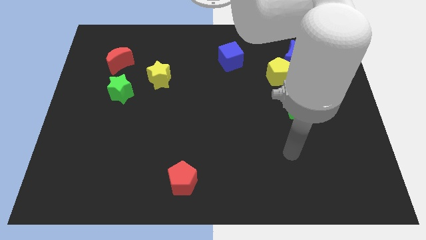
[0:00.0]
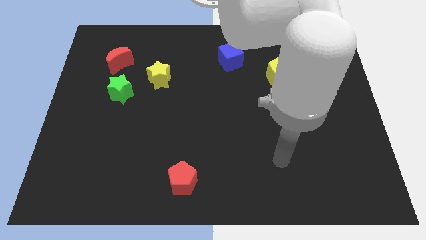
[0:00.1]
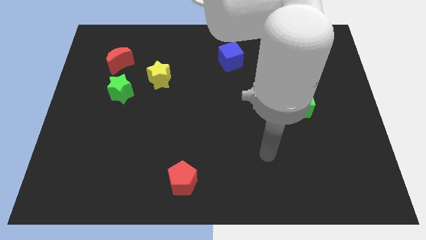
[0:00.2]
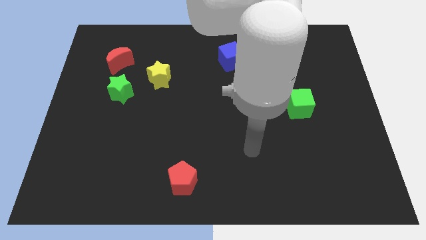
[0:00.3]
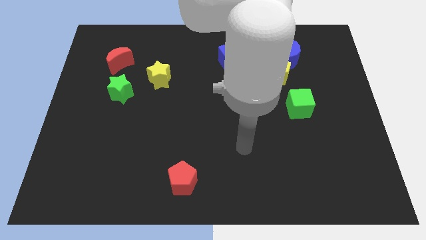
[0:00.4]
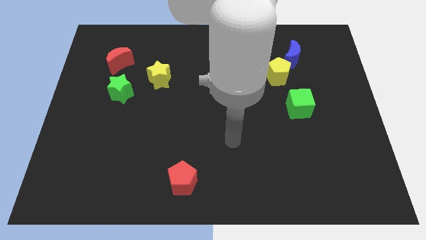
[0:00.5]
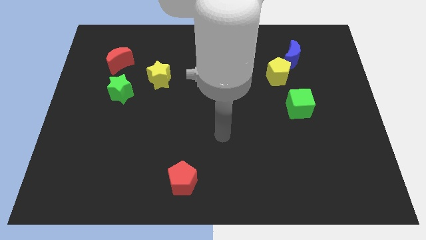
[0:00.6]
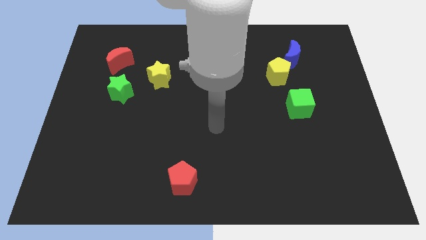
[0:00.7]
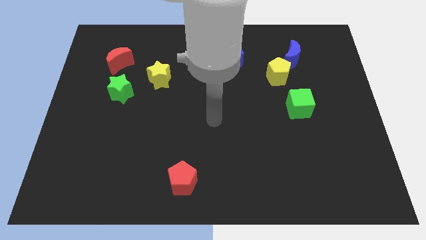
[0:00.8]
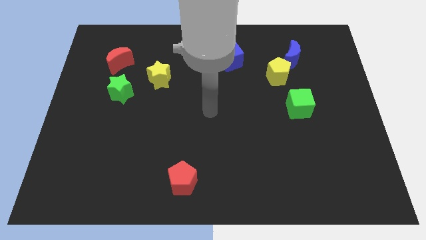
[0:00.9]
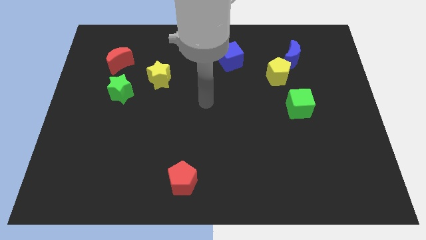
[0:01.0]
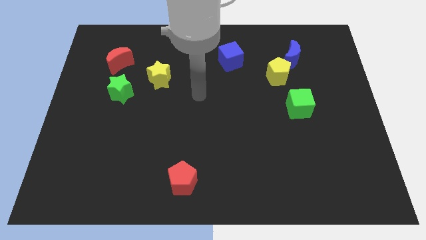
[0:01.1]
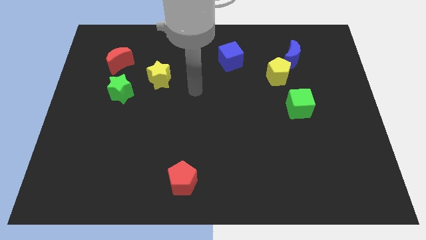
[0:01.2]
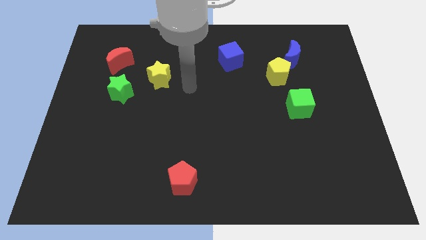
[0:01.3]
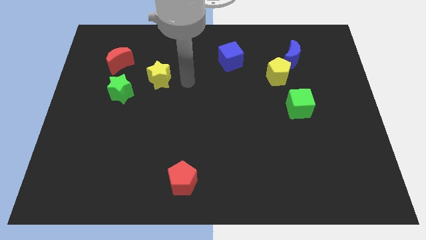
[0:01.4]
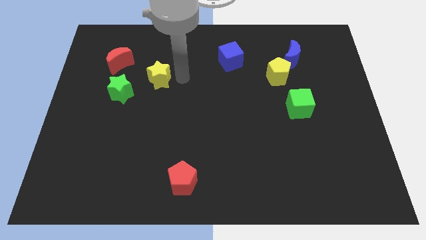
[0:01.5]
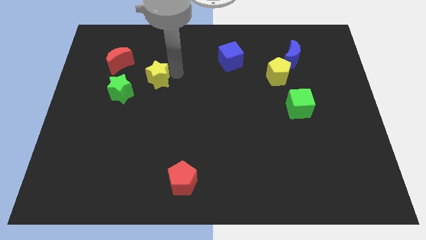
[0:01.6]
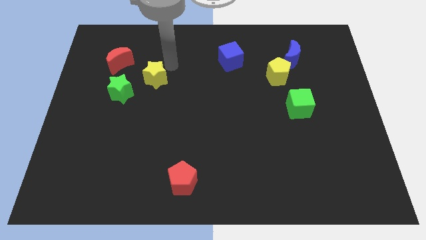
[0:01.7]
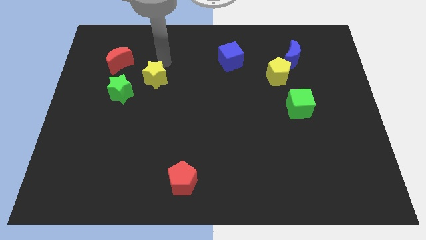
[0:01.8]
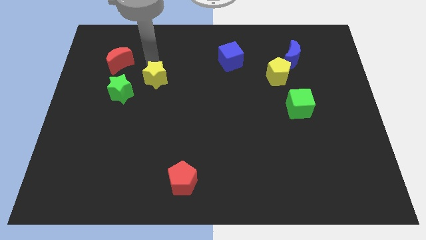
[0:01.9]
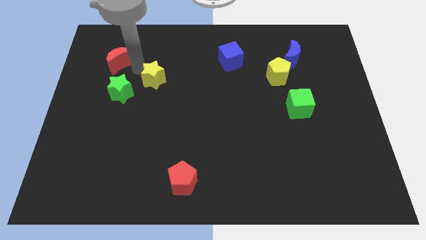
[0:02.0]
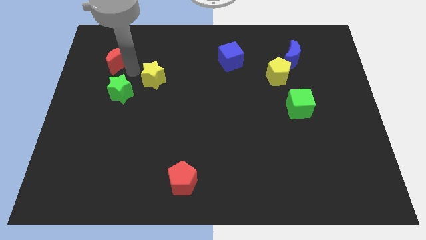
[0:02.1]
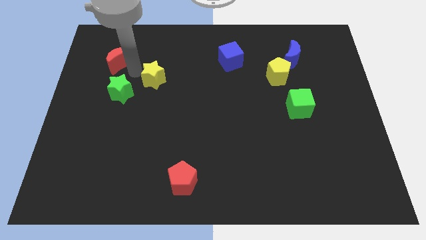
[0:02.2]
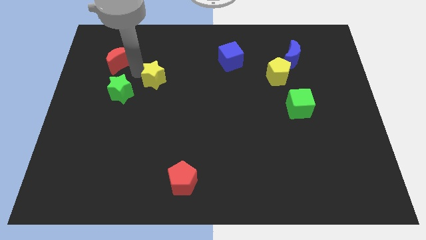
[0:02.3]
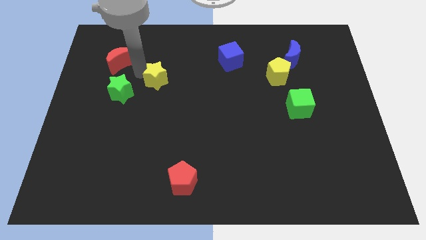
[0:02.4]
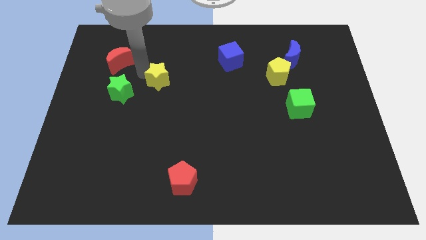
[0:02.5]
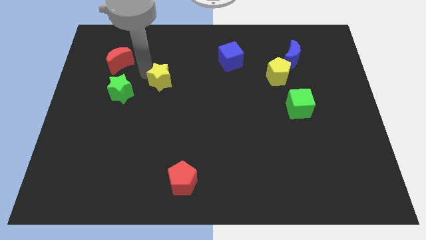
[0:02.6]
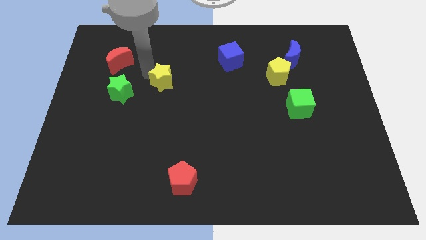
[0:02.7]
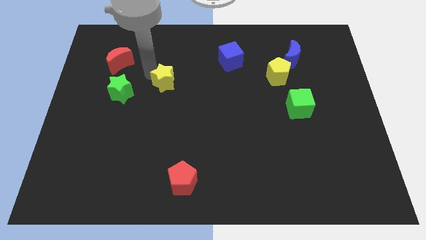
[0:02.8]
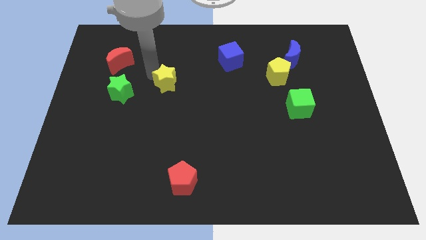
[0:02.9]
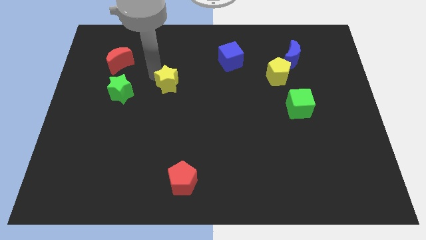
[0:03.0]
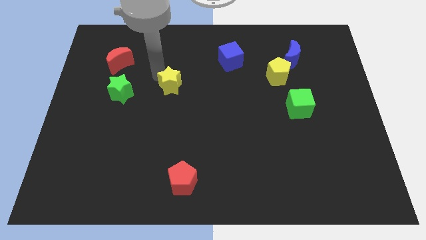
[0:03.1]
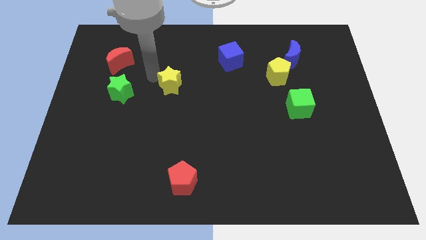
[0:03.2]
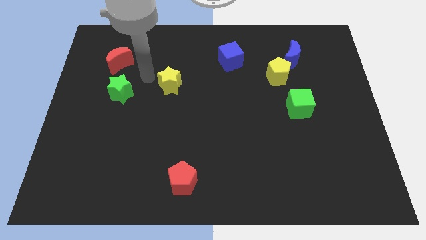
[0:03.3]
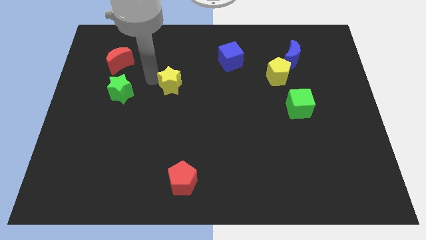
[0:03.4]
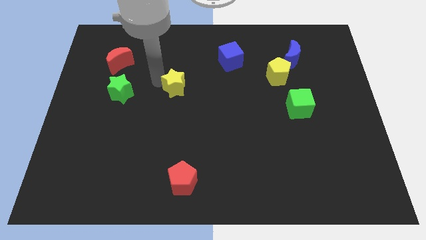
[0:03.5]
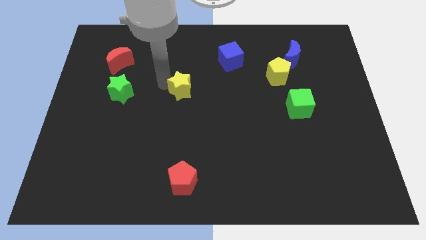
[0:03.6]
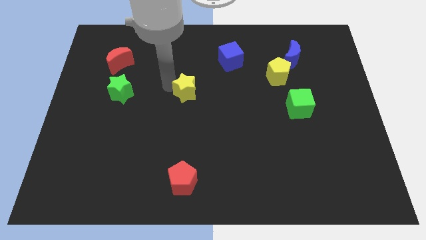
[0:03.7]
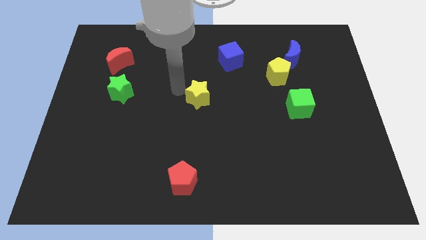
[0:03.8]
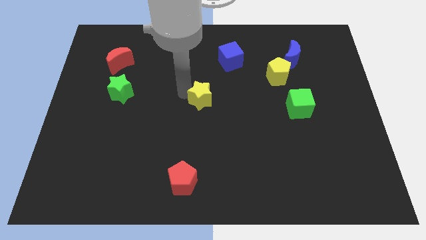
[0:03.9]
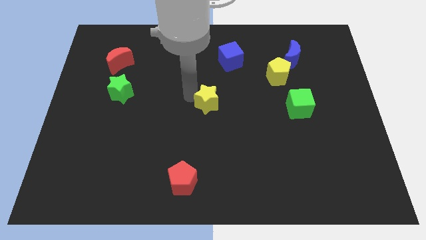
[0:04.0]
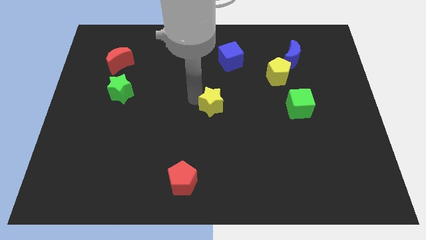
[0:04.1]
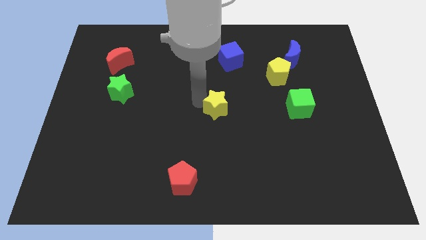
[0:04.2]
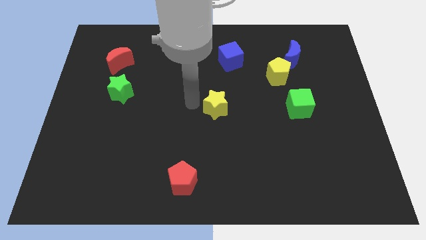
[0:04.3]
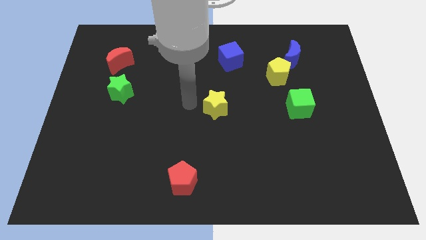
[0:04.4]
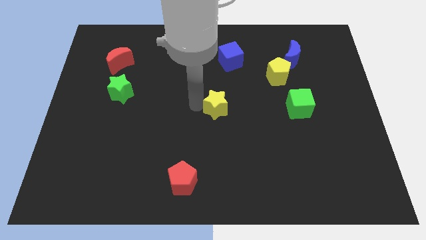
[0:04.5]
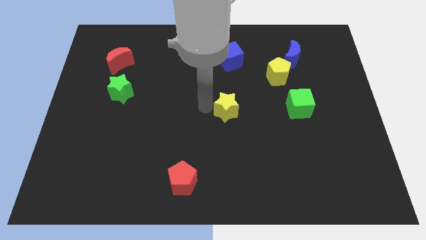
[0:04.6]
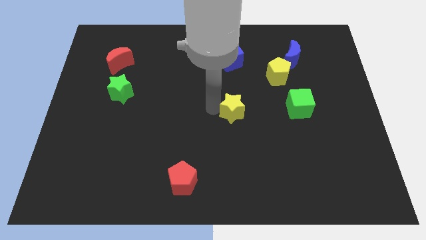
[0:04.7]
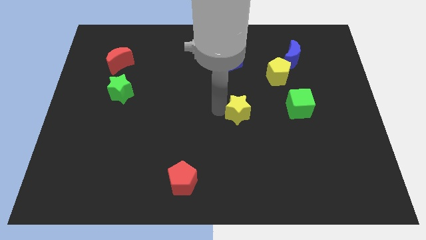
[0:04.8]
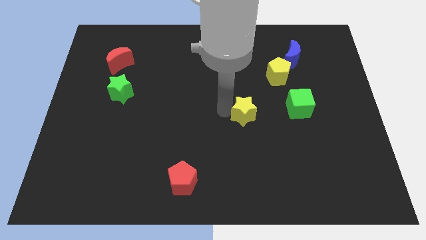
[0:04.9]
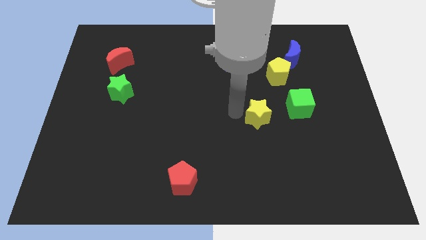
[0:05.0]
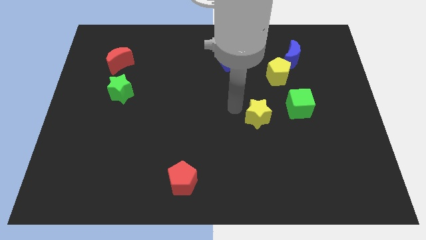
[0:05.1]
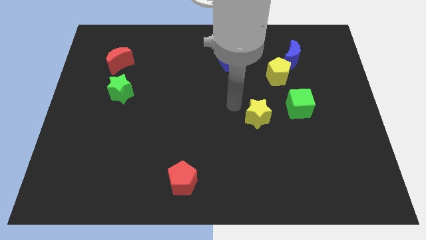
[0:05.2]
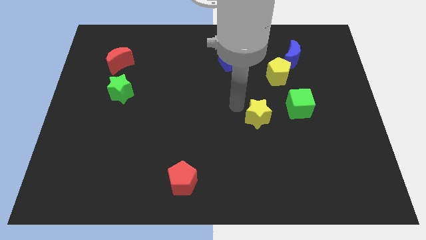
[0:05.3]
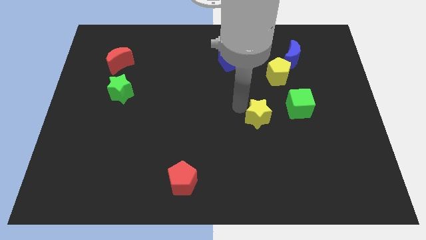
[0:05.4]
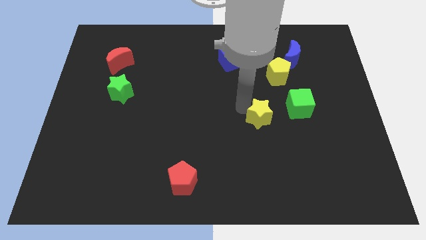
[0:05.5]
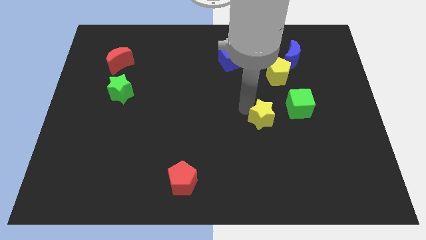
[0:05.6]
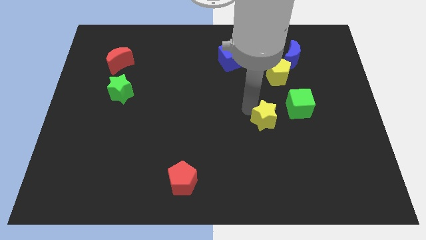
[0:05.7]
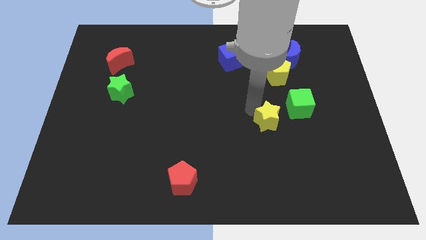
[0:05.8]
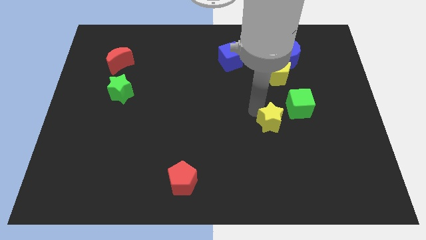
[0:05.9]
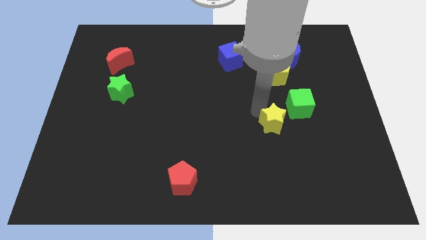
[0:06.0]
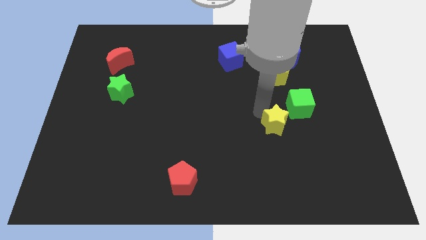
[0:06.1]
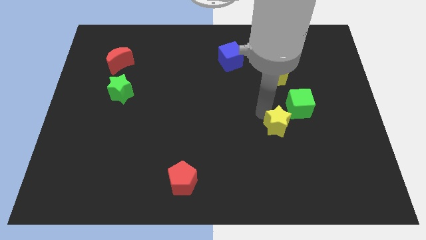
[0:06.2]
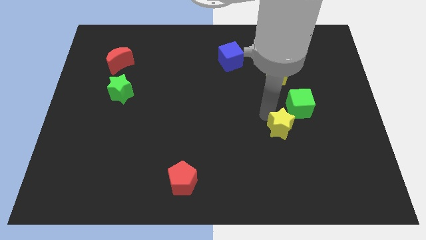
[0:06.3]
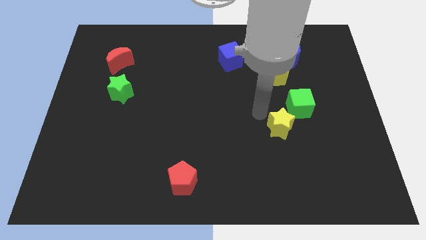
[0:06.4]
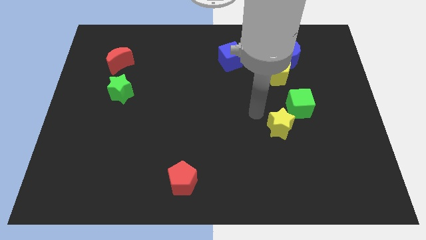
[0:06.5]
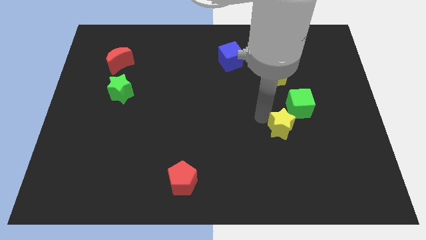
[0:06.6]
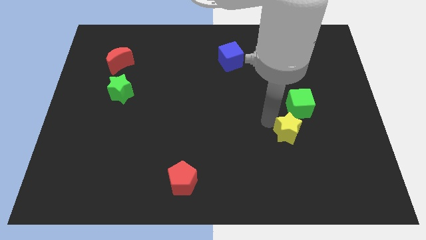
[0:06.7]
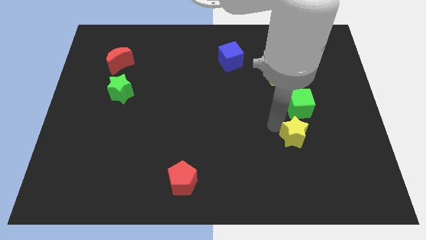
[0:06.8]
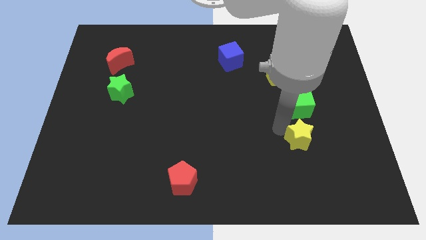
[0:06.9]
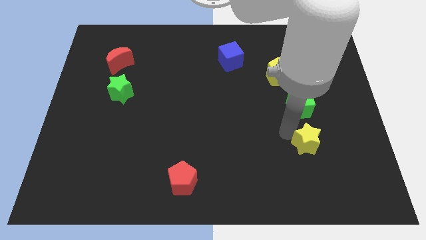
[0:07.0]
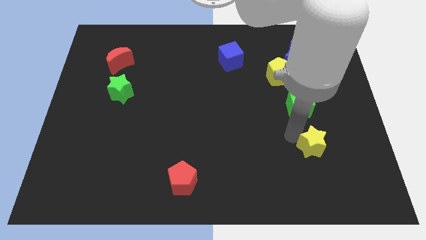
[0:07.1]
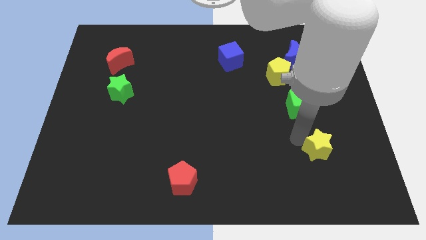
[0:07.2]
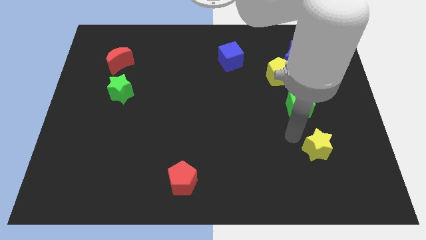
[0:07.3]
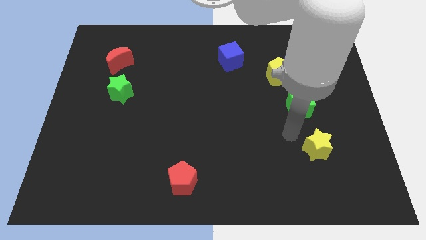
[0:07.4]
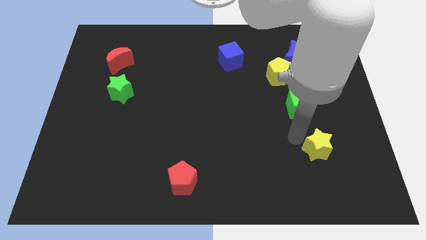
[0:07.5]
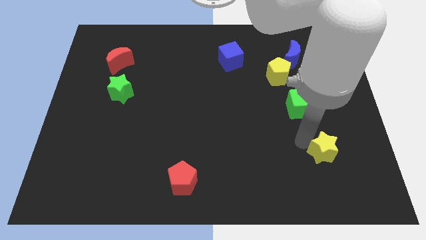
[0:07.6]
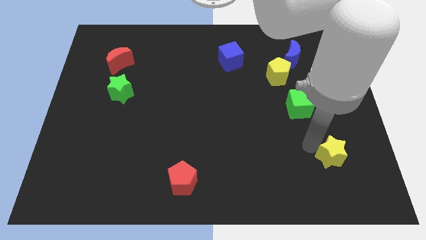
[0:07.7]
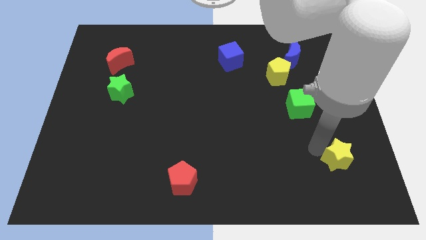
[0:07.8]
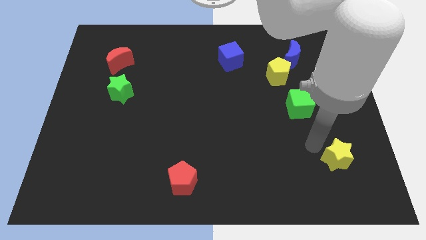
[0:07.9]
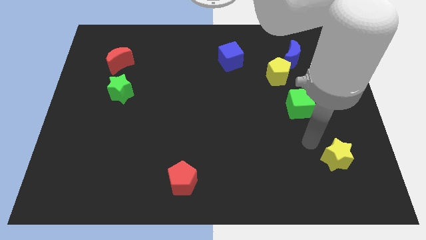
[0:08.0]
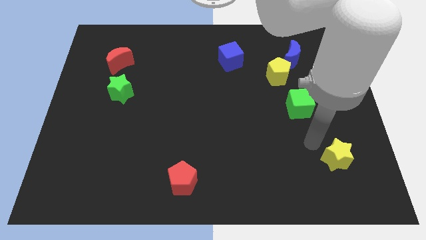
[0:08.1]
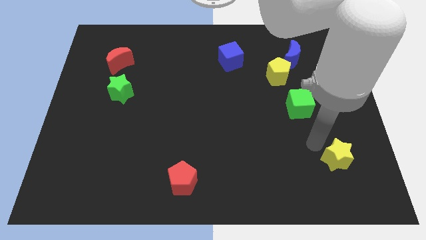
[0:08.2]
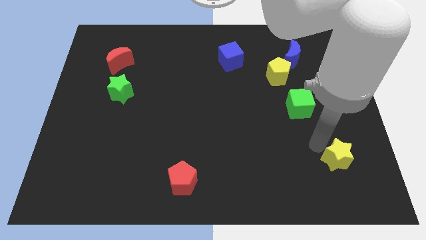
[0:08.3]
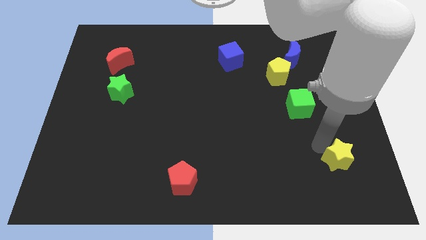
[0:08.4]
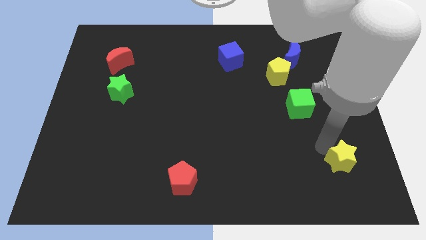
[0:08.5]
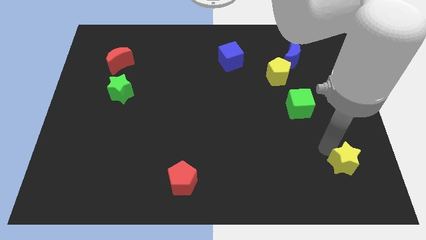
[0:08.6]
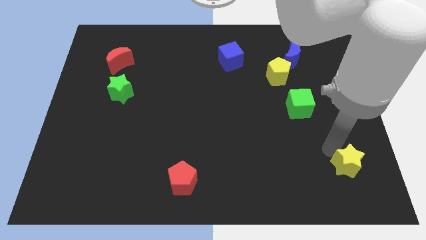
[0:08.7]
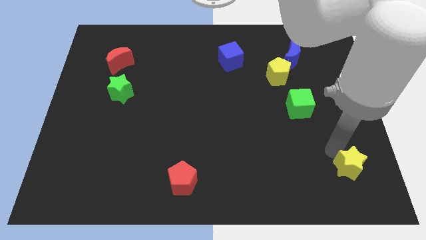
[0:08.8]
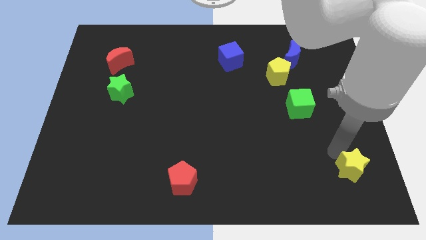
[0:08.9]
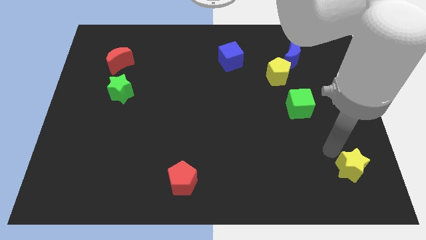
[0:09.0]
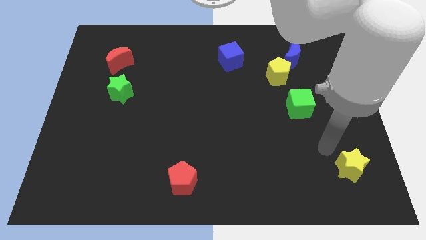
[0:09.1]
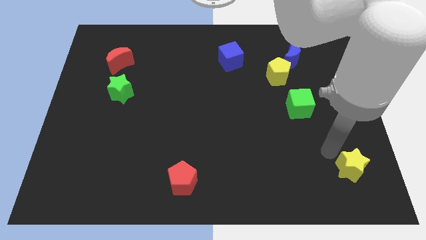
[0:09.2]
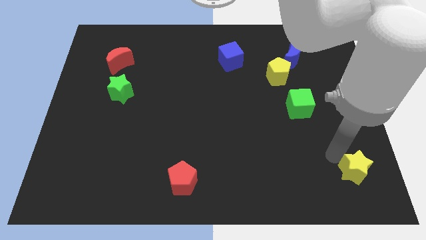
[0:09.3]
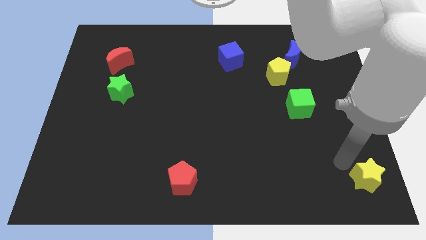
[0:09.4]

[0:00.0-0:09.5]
push the yellow star to the lower right corner
